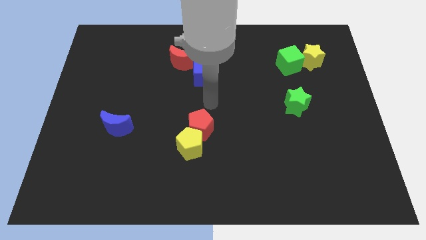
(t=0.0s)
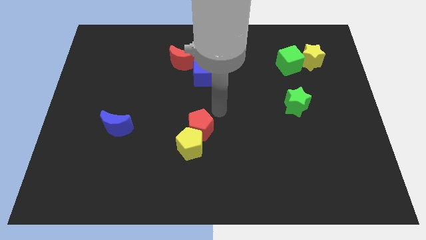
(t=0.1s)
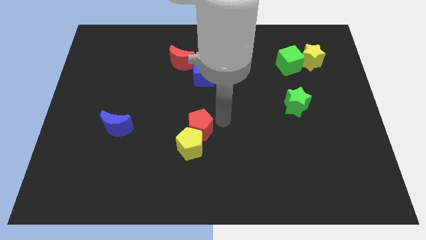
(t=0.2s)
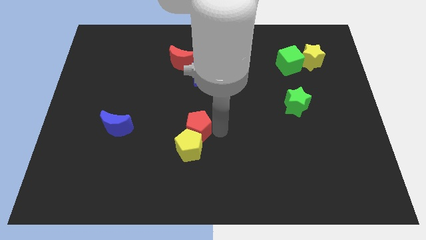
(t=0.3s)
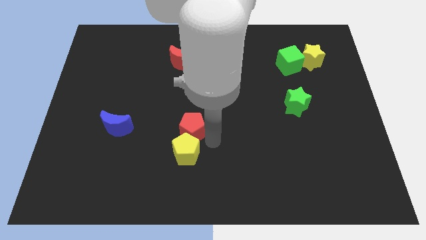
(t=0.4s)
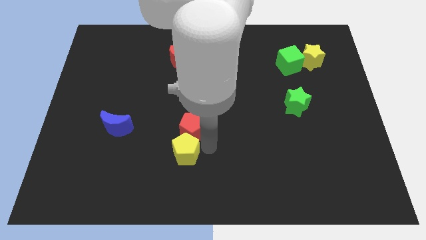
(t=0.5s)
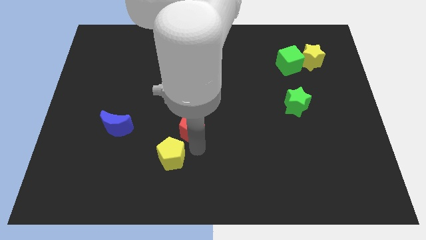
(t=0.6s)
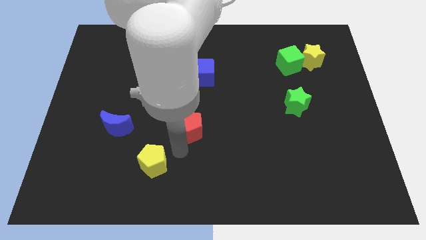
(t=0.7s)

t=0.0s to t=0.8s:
separate the red pentagon from the yellow pentagon

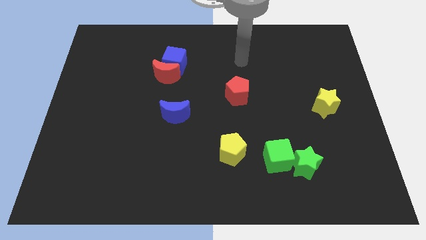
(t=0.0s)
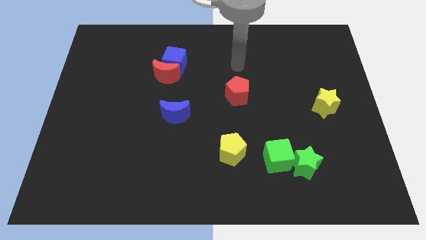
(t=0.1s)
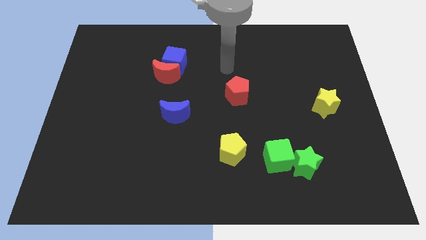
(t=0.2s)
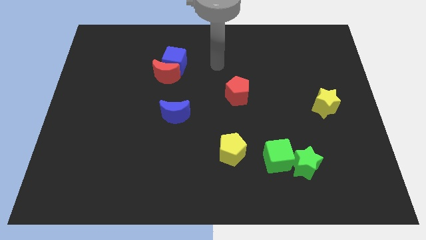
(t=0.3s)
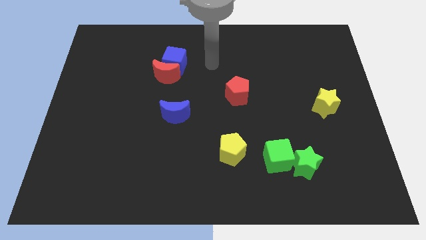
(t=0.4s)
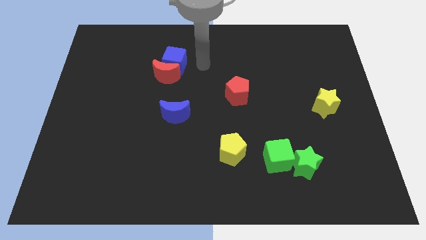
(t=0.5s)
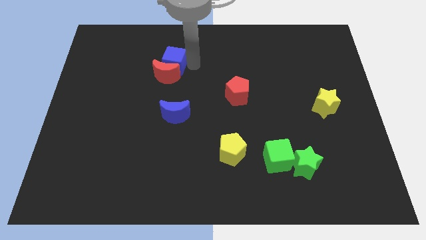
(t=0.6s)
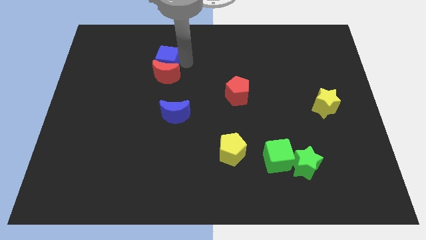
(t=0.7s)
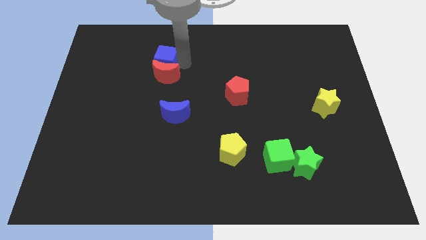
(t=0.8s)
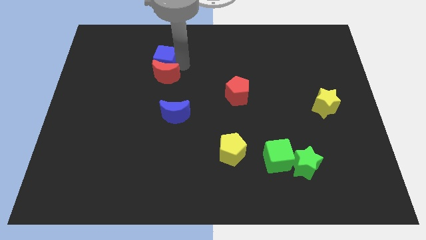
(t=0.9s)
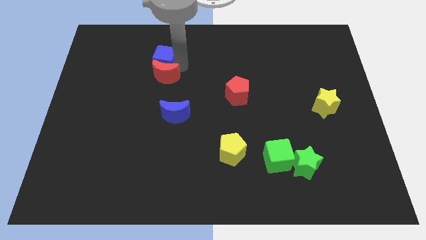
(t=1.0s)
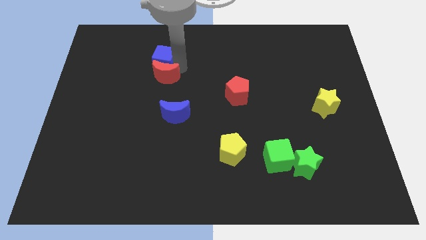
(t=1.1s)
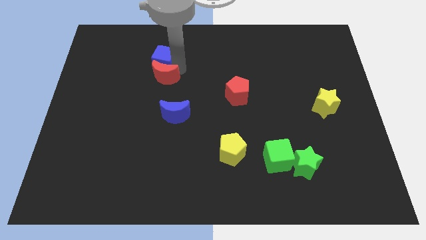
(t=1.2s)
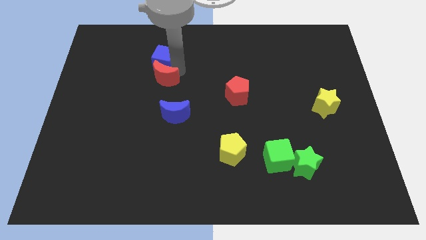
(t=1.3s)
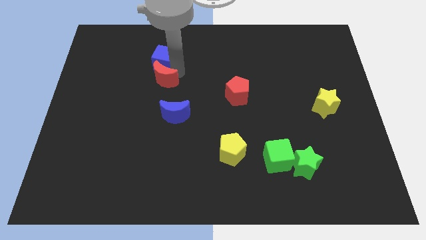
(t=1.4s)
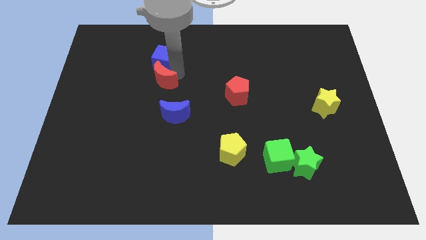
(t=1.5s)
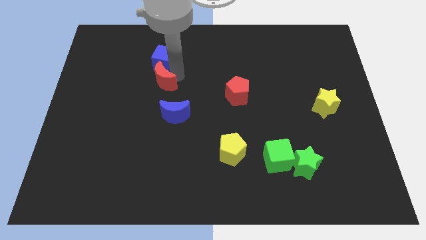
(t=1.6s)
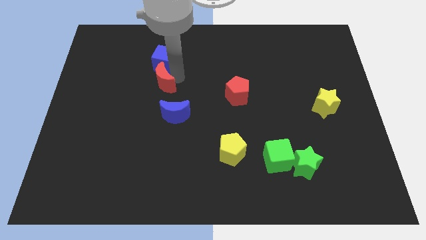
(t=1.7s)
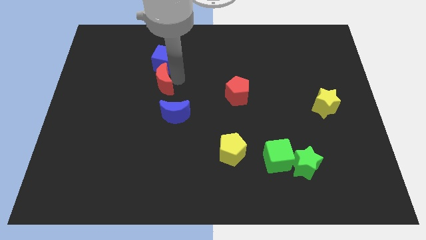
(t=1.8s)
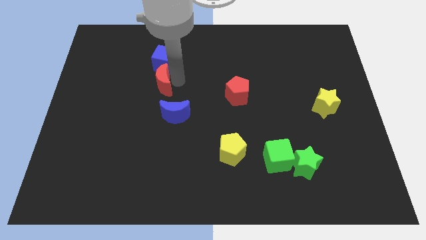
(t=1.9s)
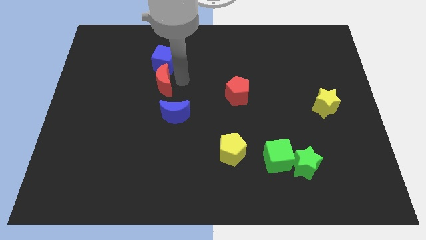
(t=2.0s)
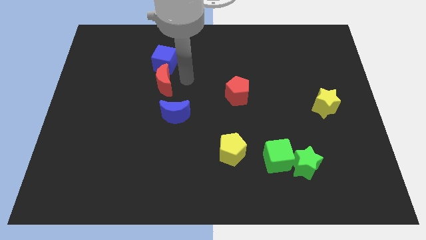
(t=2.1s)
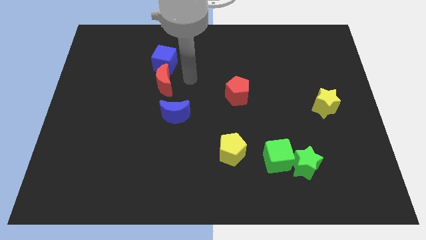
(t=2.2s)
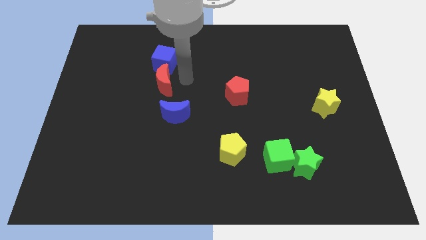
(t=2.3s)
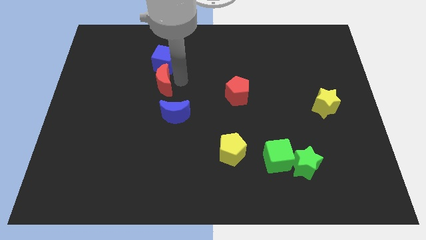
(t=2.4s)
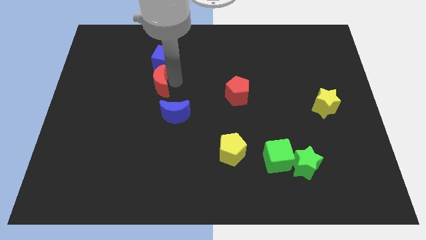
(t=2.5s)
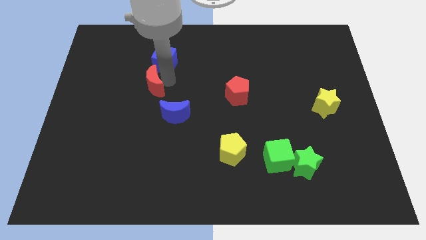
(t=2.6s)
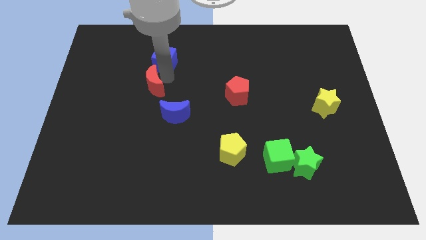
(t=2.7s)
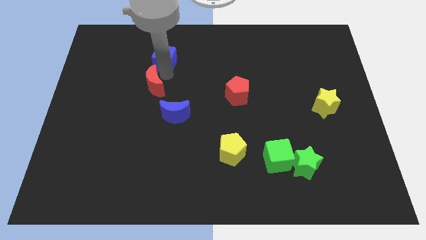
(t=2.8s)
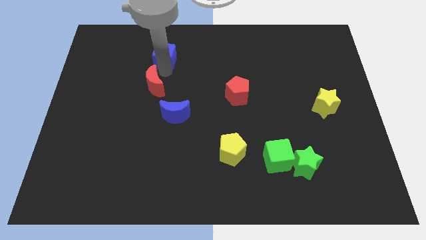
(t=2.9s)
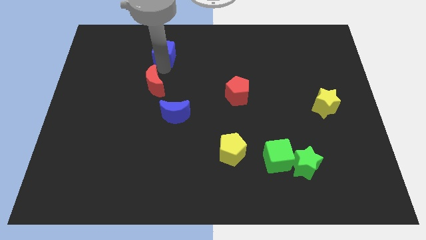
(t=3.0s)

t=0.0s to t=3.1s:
separate the red moon from the blue cube

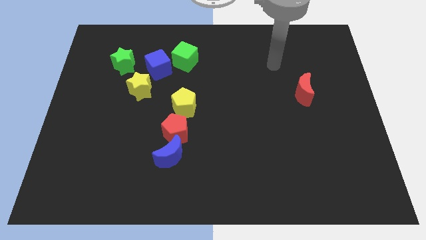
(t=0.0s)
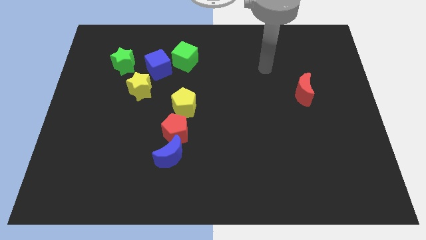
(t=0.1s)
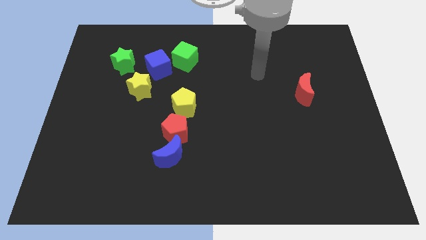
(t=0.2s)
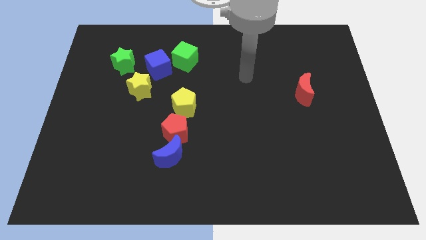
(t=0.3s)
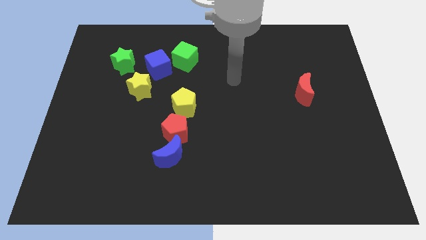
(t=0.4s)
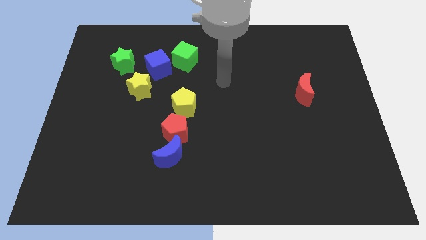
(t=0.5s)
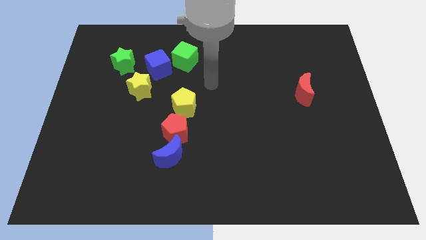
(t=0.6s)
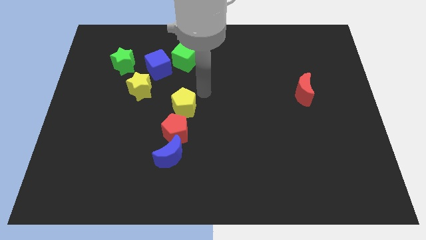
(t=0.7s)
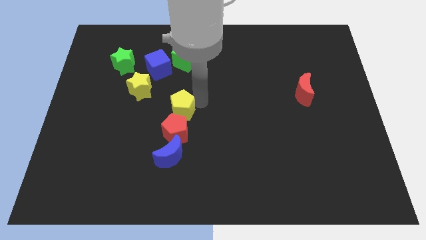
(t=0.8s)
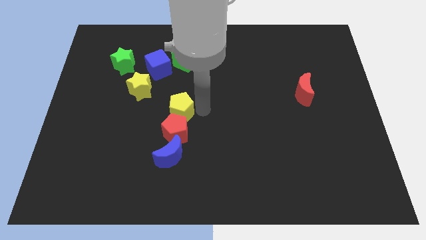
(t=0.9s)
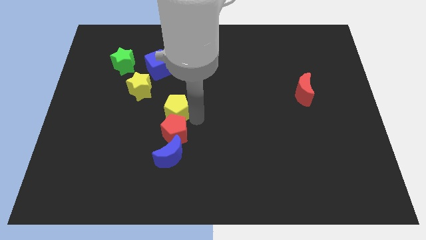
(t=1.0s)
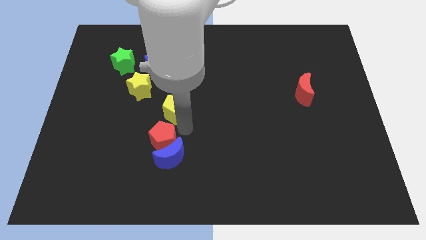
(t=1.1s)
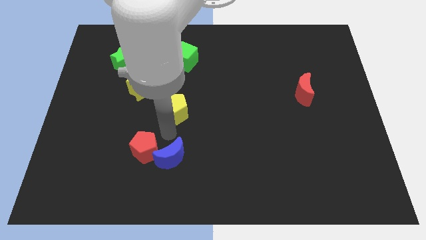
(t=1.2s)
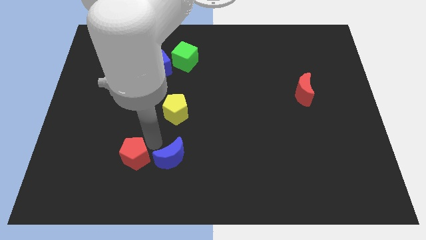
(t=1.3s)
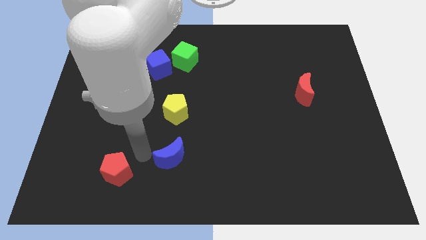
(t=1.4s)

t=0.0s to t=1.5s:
pull the blue moon apart from the red pentagon

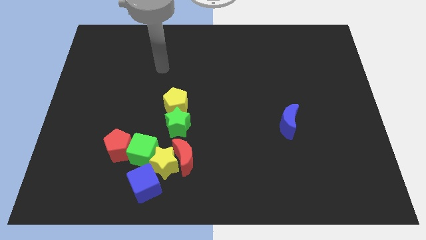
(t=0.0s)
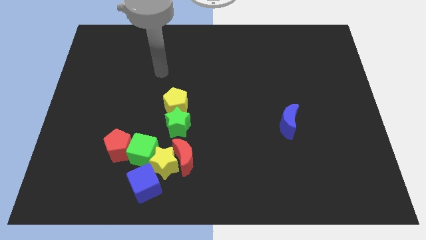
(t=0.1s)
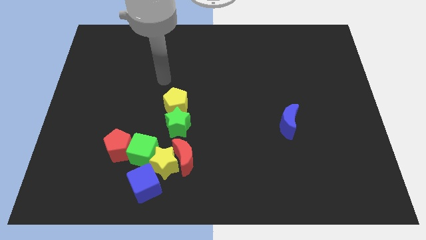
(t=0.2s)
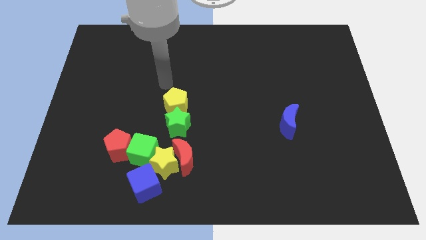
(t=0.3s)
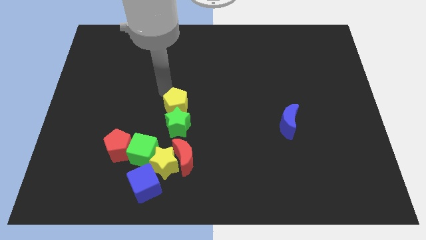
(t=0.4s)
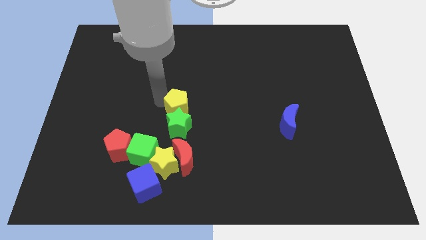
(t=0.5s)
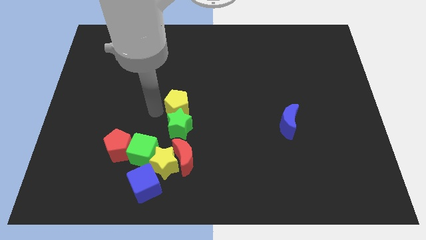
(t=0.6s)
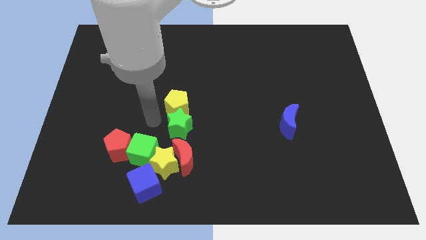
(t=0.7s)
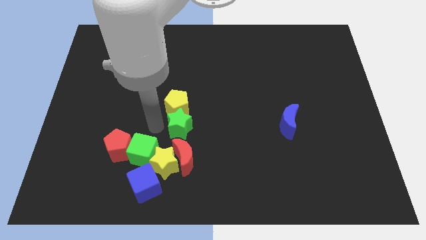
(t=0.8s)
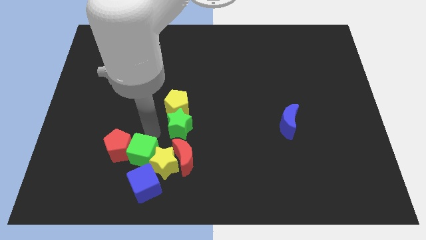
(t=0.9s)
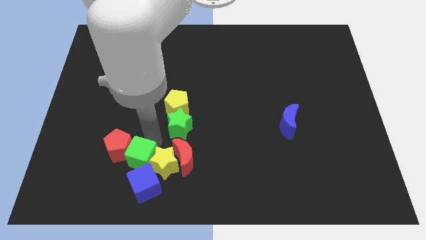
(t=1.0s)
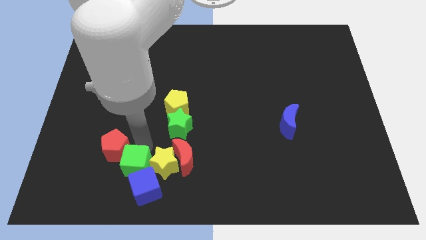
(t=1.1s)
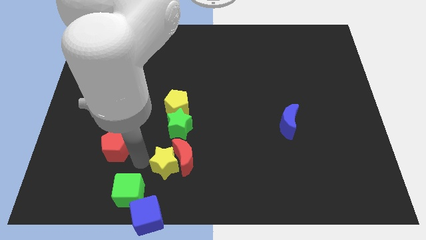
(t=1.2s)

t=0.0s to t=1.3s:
pull the red pentagon apart from the green cube

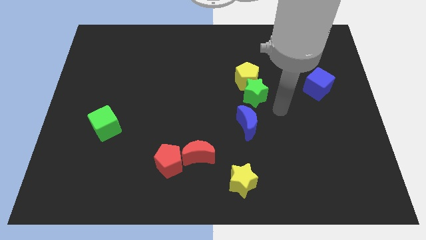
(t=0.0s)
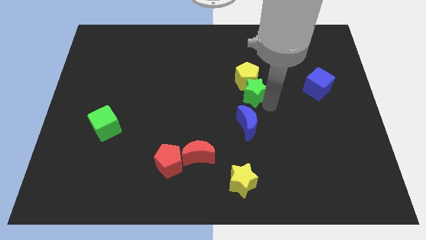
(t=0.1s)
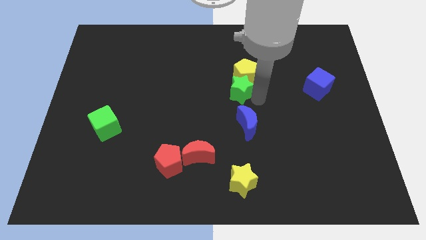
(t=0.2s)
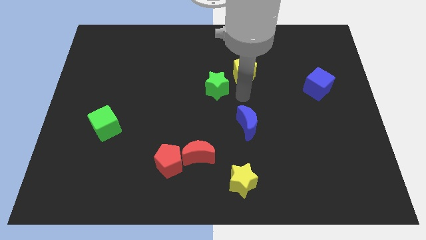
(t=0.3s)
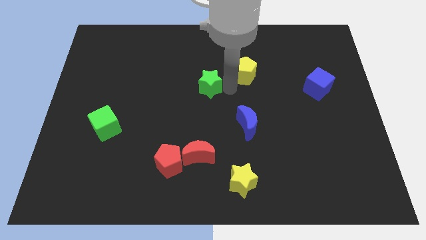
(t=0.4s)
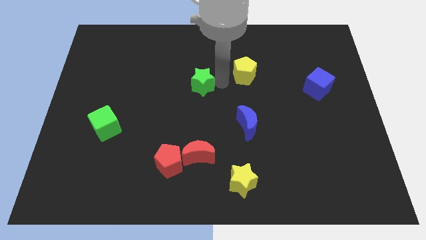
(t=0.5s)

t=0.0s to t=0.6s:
pull the yellow pentagon apart from the green star

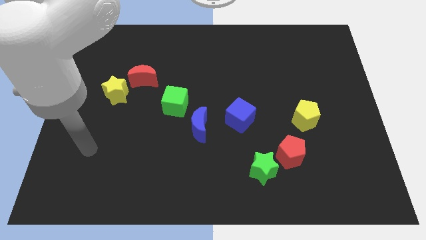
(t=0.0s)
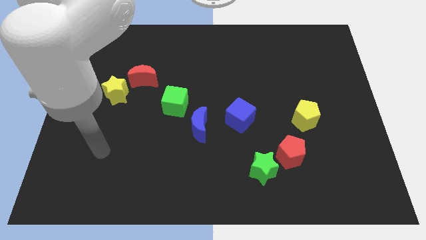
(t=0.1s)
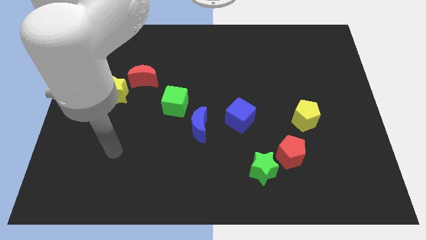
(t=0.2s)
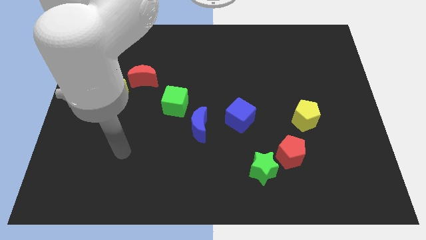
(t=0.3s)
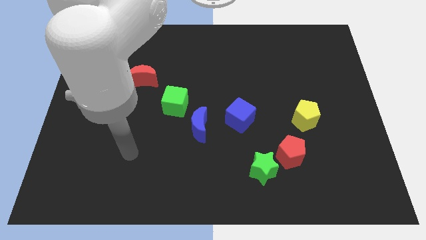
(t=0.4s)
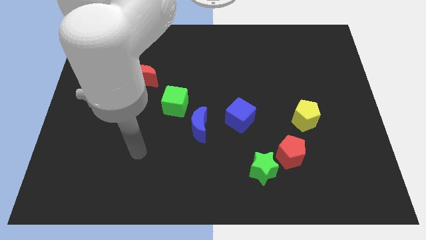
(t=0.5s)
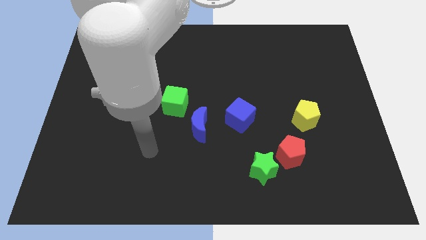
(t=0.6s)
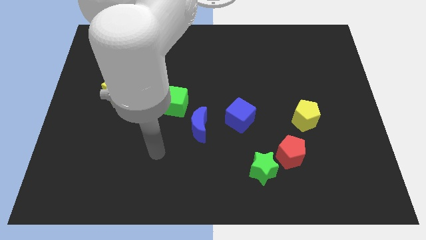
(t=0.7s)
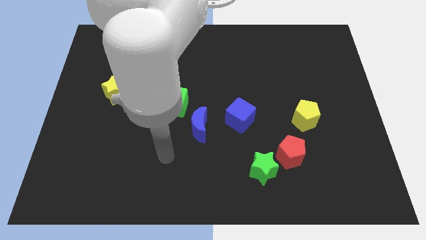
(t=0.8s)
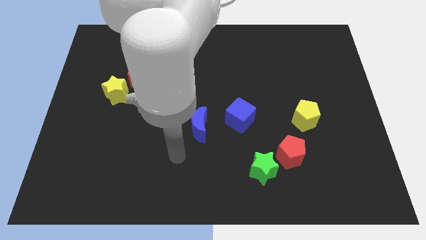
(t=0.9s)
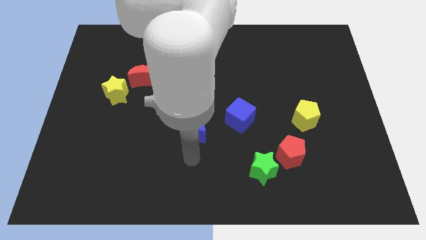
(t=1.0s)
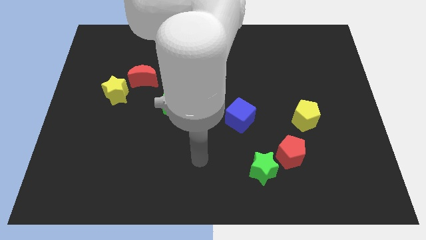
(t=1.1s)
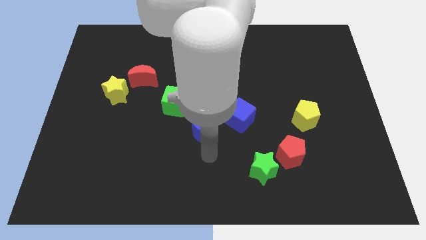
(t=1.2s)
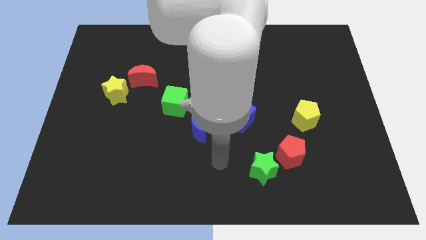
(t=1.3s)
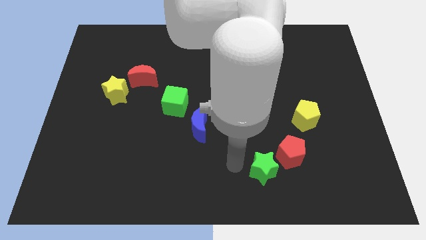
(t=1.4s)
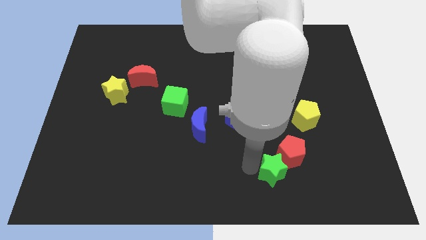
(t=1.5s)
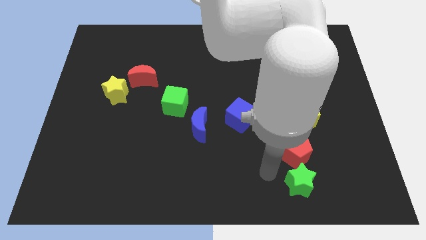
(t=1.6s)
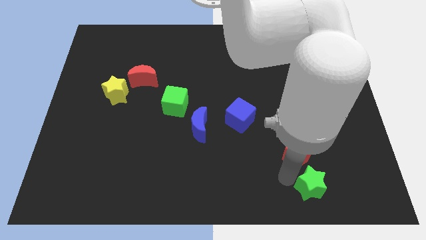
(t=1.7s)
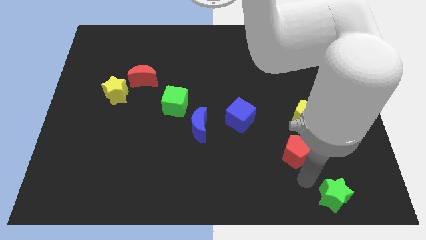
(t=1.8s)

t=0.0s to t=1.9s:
separate the red pentagon from the green star

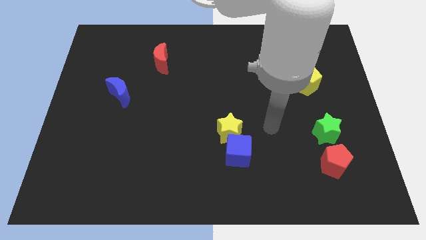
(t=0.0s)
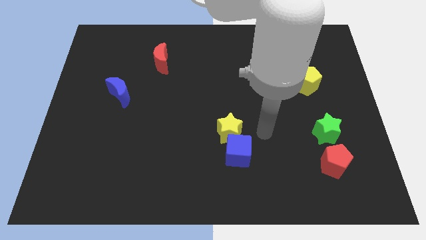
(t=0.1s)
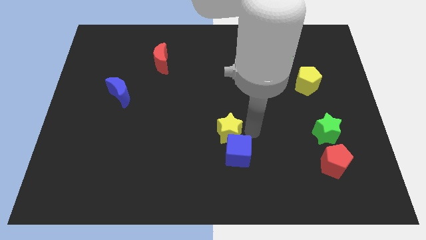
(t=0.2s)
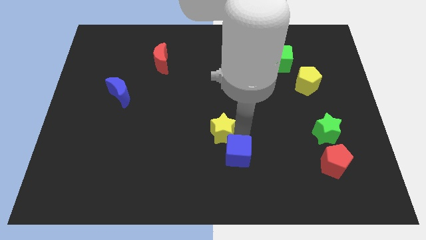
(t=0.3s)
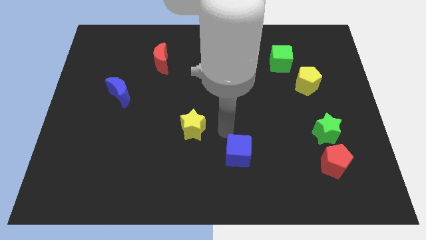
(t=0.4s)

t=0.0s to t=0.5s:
separate the blue cube from the yellow star
